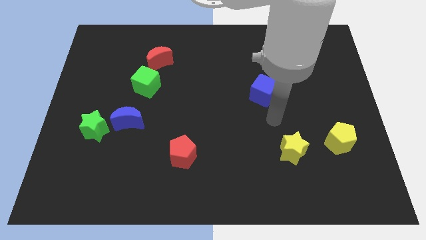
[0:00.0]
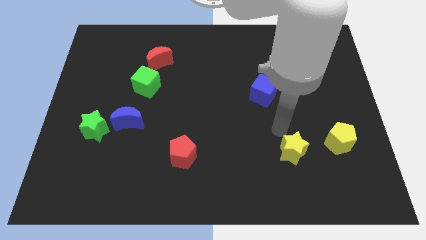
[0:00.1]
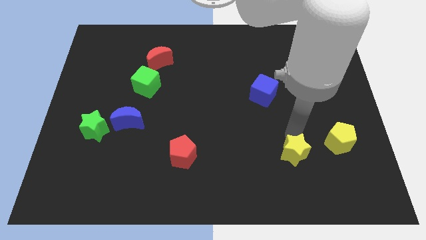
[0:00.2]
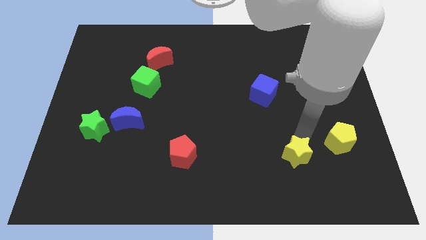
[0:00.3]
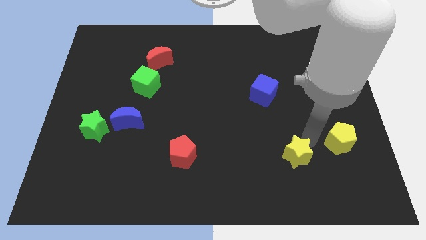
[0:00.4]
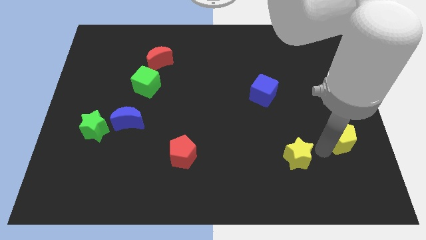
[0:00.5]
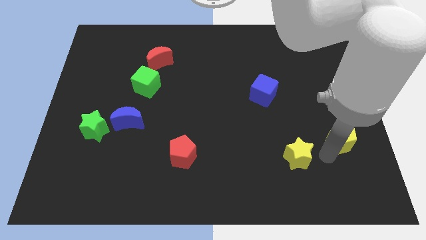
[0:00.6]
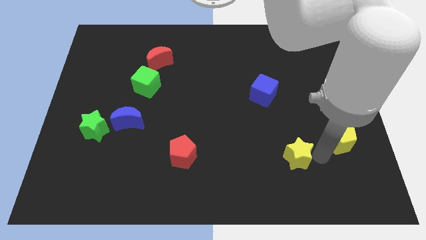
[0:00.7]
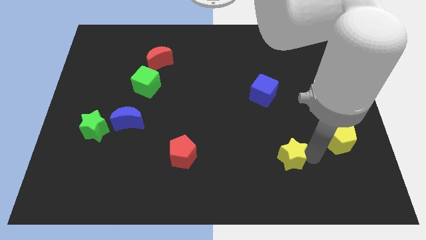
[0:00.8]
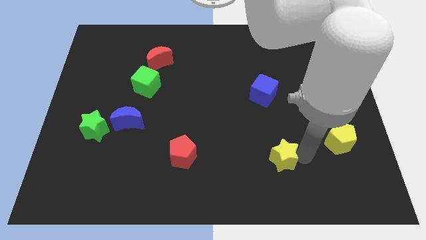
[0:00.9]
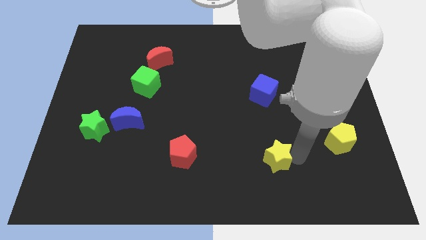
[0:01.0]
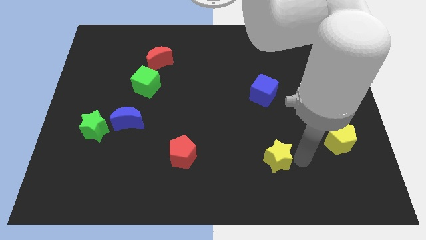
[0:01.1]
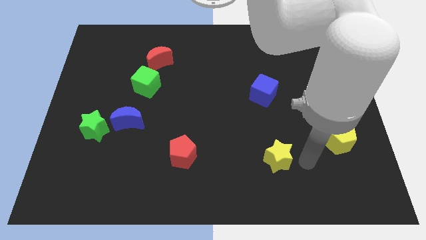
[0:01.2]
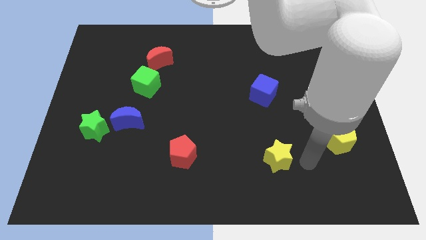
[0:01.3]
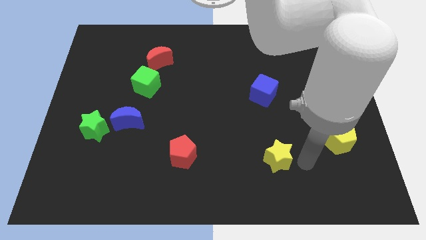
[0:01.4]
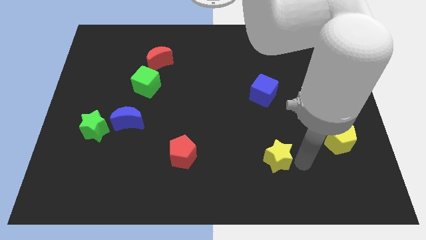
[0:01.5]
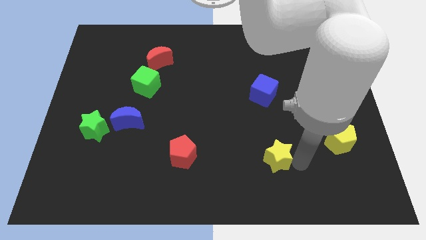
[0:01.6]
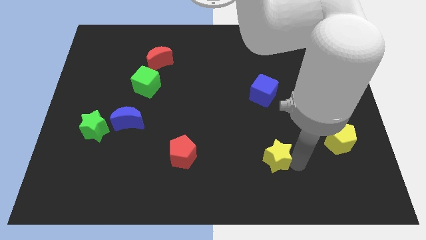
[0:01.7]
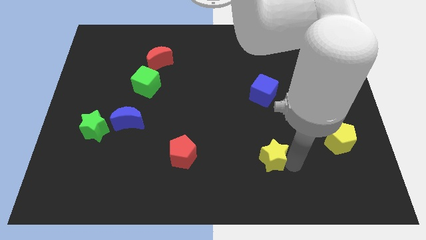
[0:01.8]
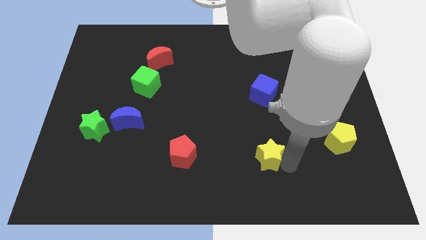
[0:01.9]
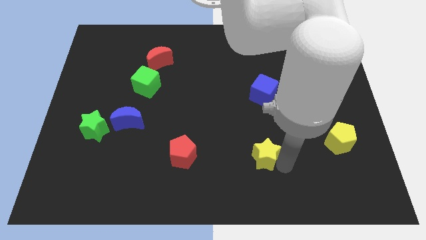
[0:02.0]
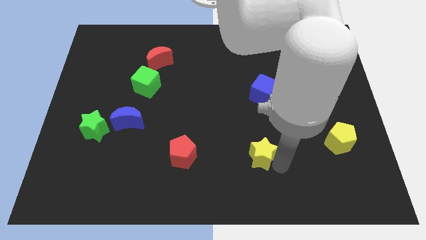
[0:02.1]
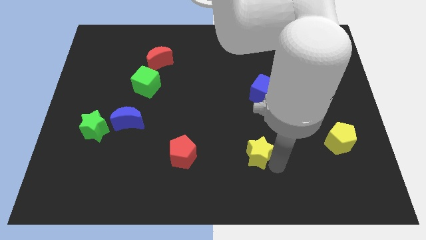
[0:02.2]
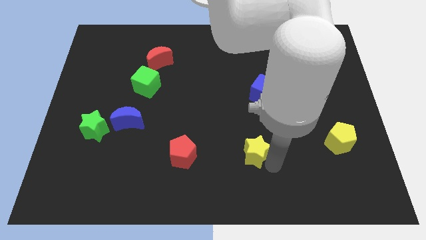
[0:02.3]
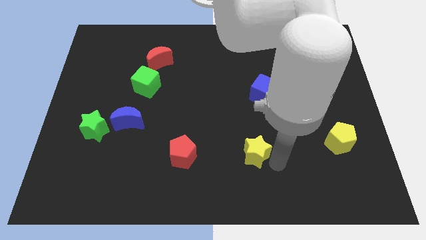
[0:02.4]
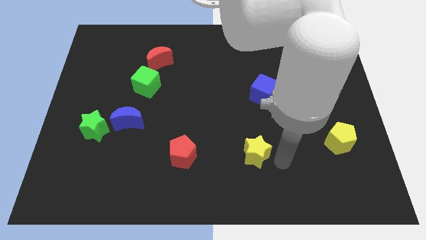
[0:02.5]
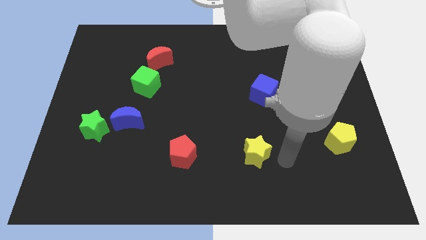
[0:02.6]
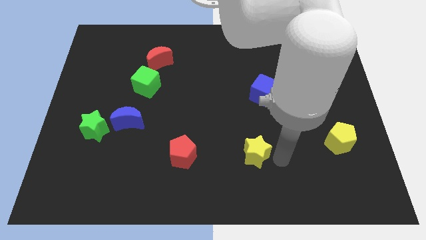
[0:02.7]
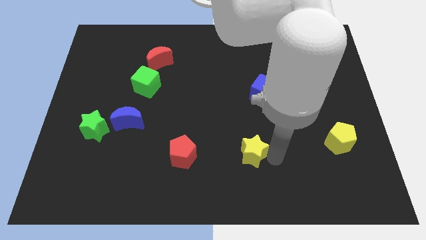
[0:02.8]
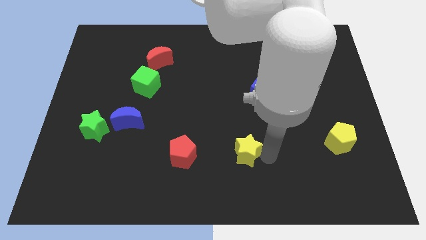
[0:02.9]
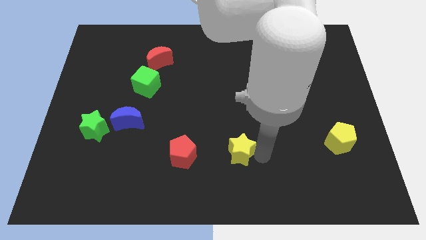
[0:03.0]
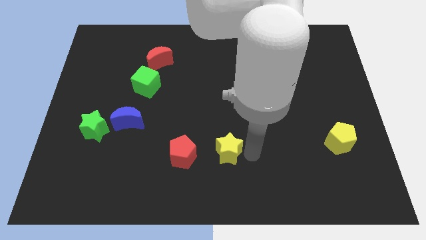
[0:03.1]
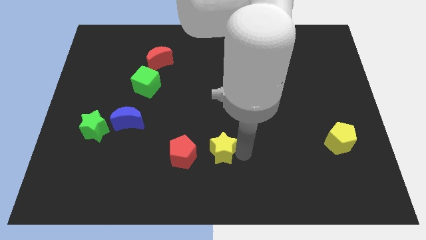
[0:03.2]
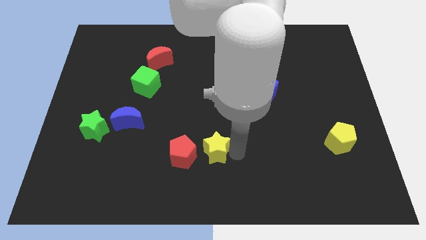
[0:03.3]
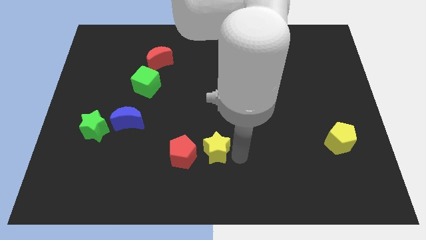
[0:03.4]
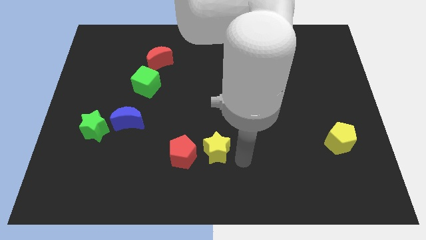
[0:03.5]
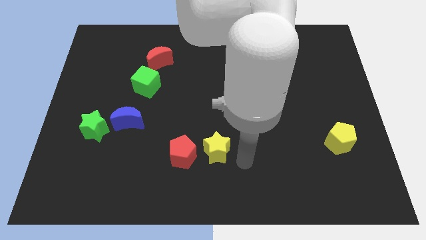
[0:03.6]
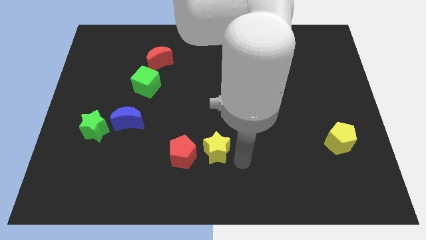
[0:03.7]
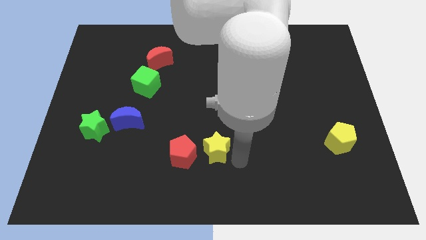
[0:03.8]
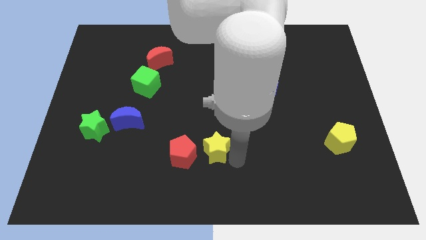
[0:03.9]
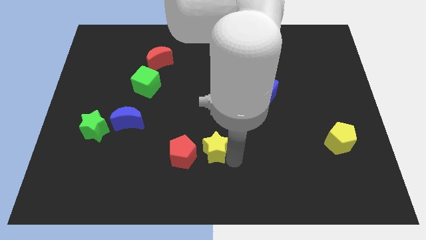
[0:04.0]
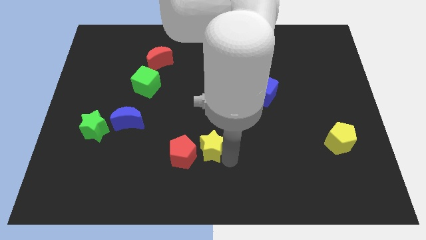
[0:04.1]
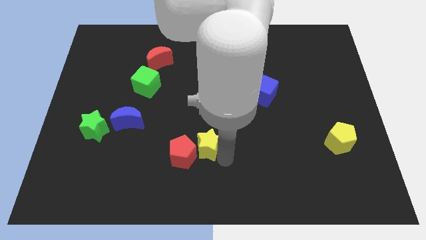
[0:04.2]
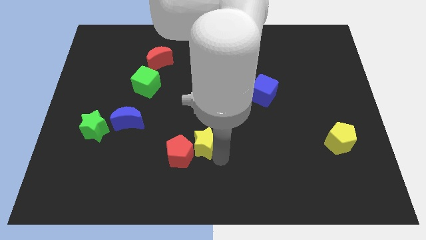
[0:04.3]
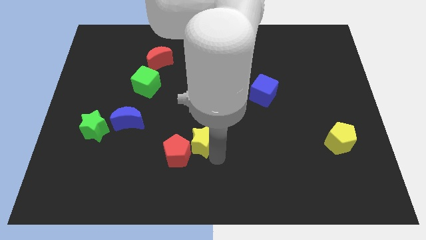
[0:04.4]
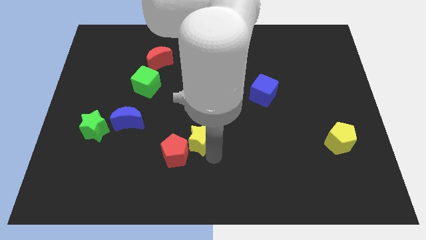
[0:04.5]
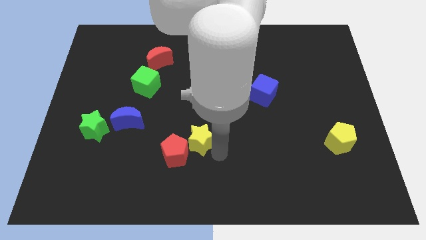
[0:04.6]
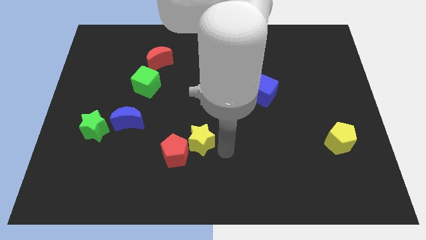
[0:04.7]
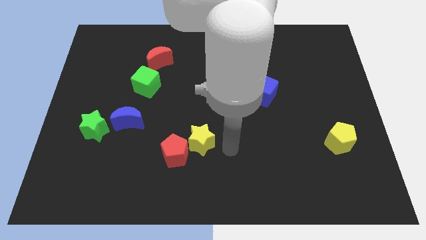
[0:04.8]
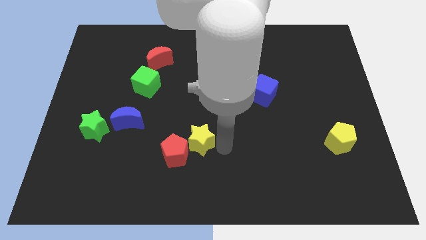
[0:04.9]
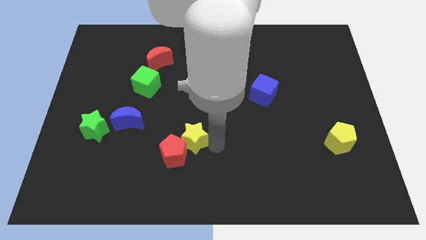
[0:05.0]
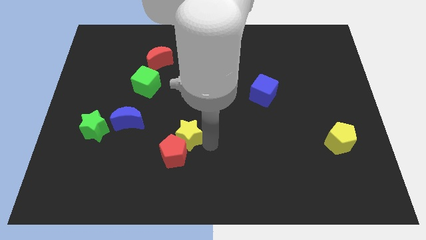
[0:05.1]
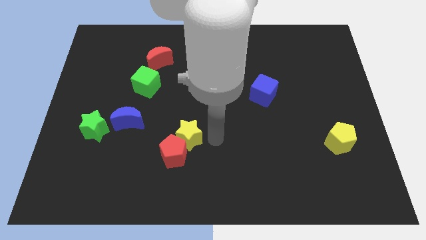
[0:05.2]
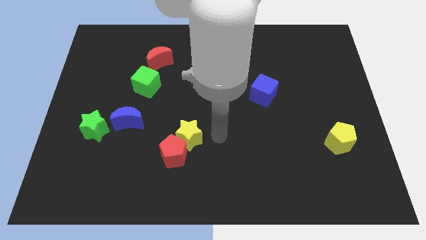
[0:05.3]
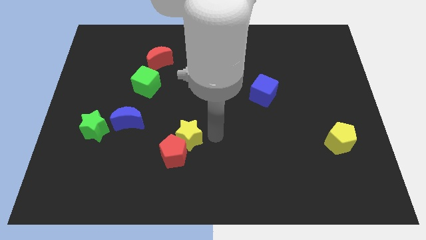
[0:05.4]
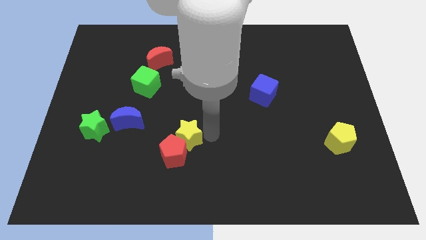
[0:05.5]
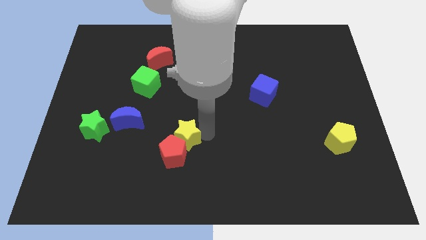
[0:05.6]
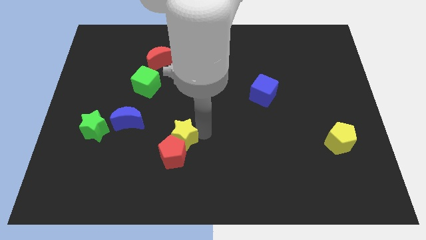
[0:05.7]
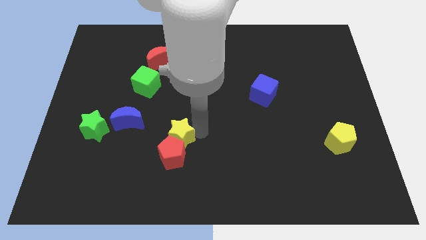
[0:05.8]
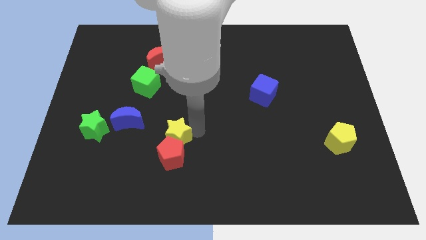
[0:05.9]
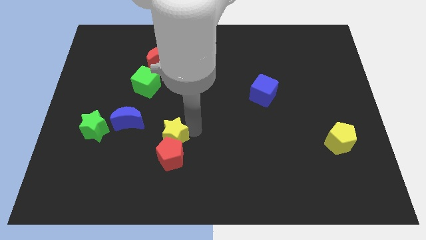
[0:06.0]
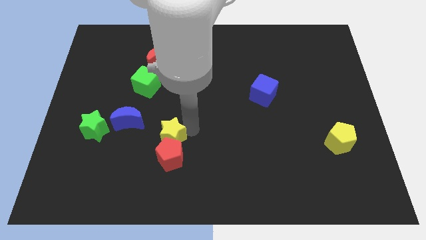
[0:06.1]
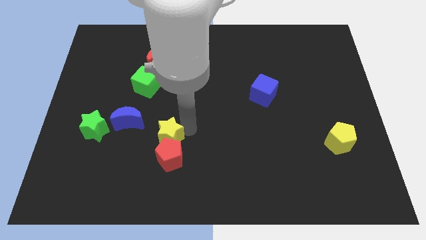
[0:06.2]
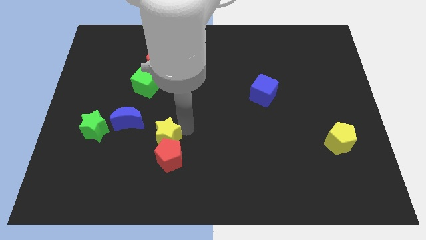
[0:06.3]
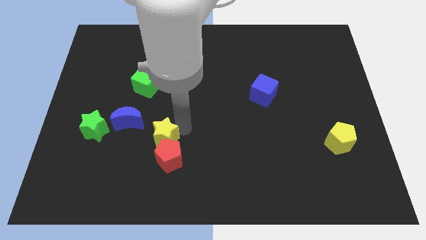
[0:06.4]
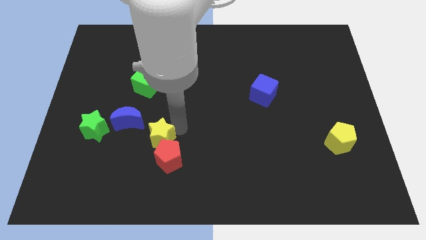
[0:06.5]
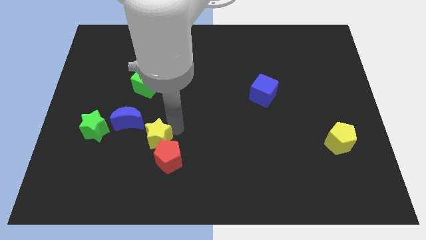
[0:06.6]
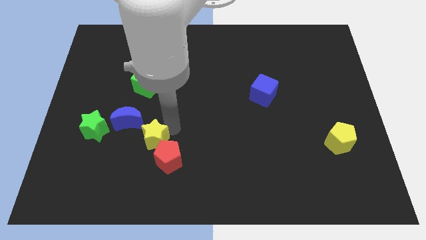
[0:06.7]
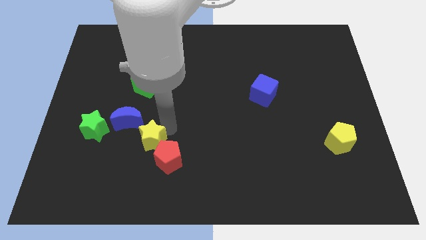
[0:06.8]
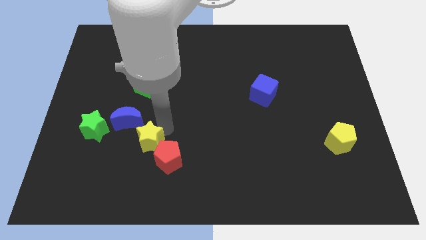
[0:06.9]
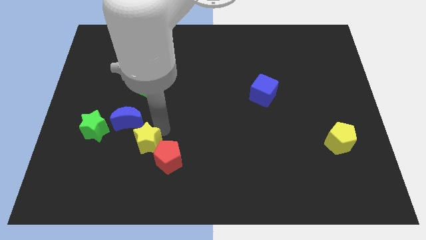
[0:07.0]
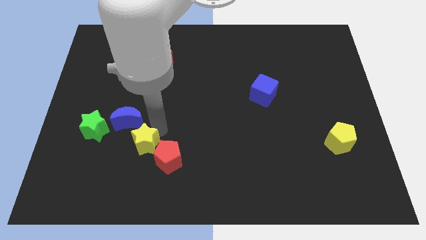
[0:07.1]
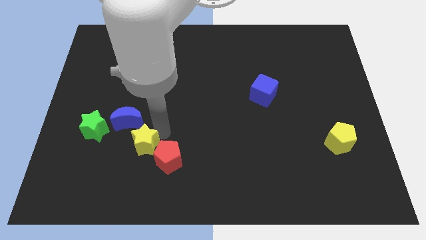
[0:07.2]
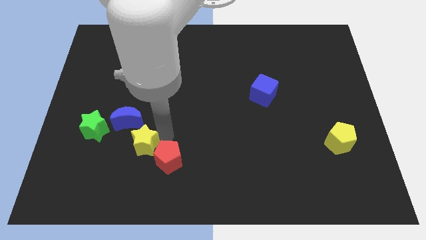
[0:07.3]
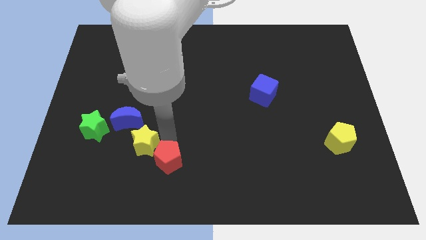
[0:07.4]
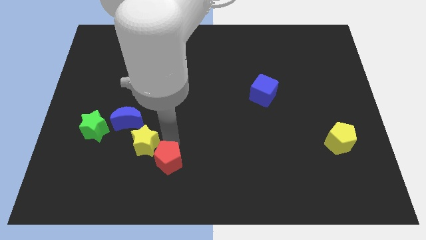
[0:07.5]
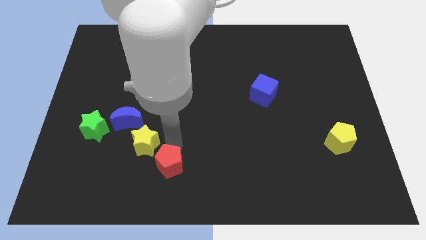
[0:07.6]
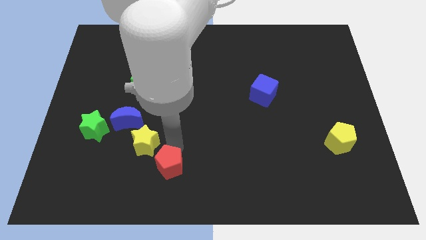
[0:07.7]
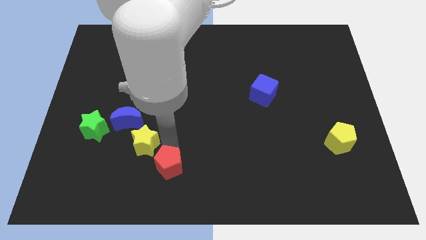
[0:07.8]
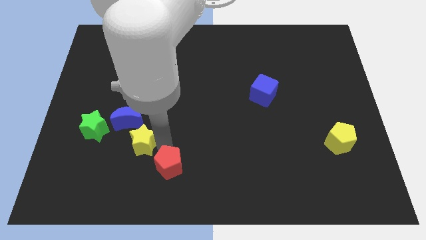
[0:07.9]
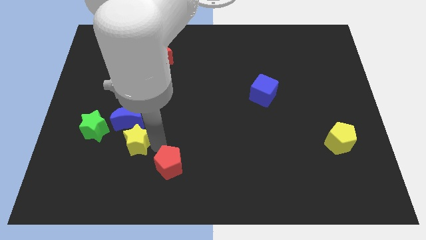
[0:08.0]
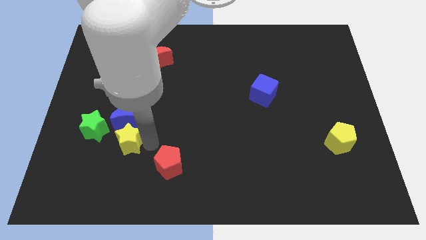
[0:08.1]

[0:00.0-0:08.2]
put the yellow star to the bottom left side of the blue moon
